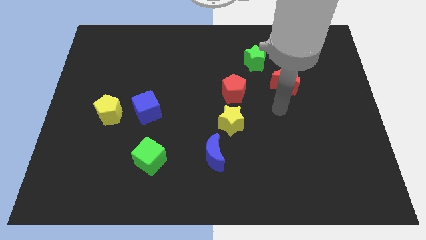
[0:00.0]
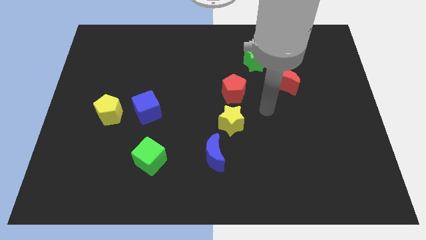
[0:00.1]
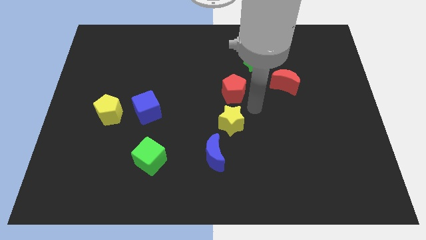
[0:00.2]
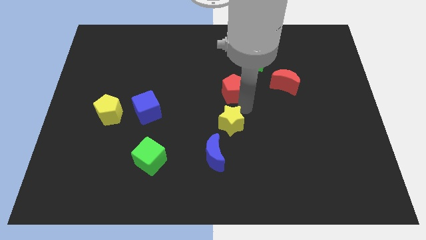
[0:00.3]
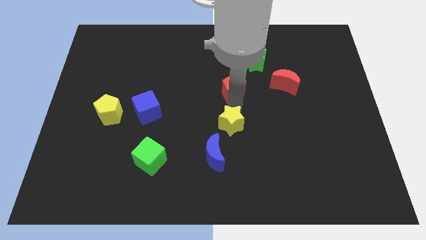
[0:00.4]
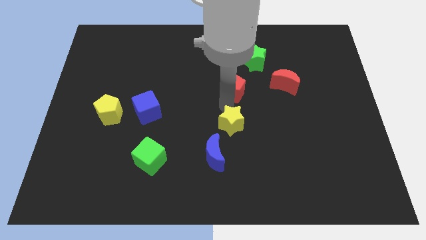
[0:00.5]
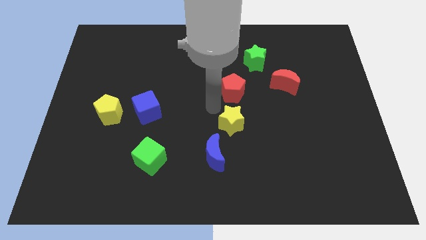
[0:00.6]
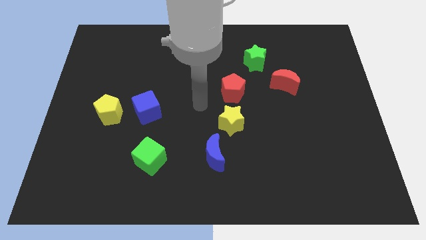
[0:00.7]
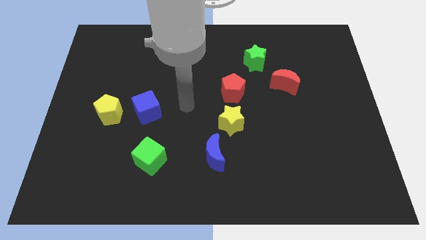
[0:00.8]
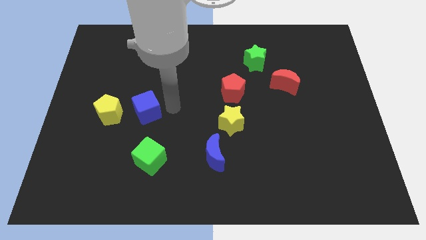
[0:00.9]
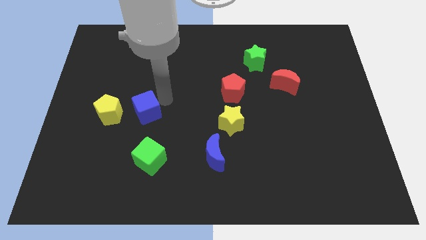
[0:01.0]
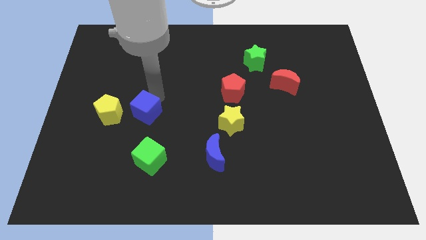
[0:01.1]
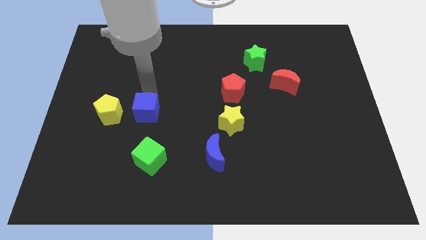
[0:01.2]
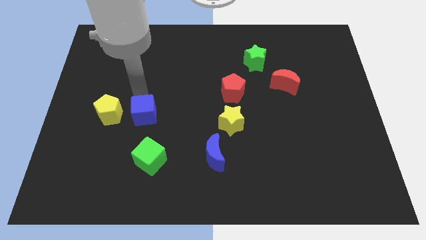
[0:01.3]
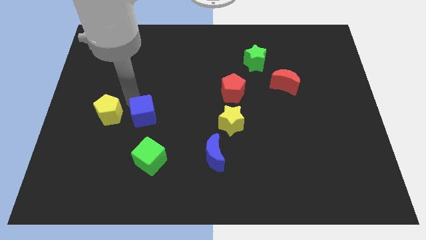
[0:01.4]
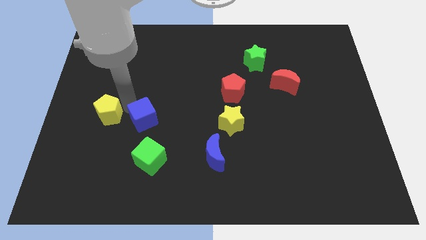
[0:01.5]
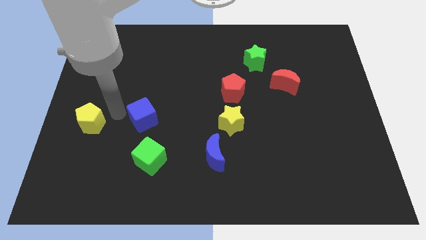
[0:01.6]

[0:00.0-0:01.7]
separate the blue cube from the yellow pentagon

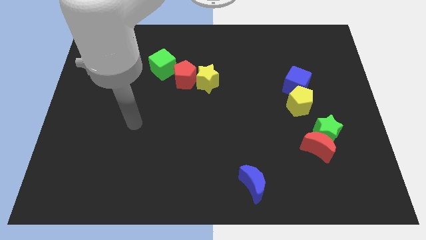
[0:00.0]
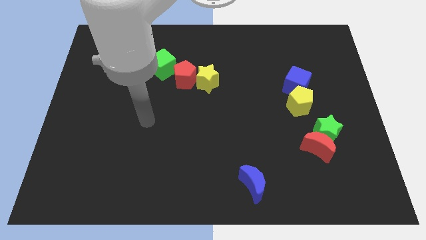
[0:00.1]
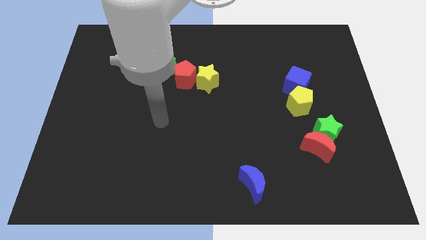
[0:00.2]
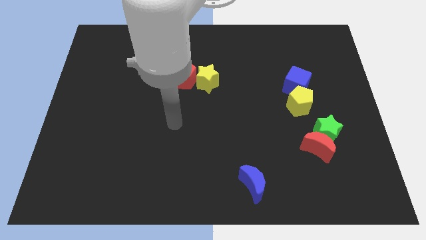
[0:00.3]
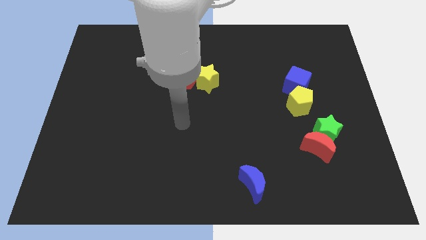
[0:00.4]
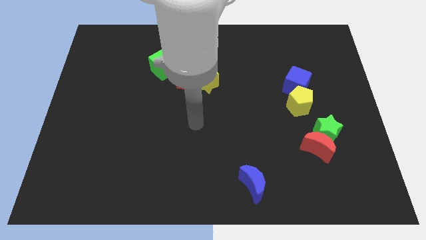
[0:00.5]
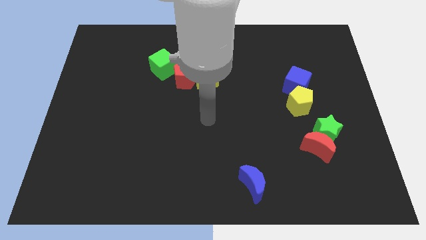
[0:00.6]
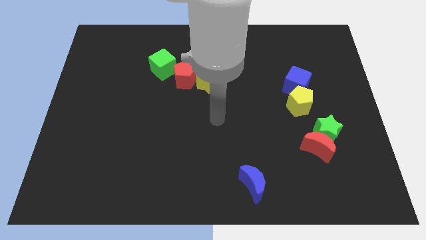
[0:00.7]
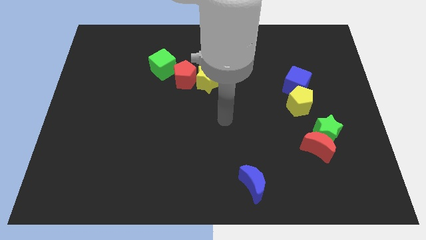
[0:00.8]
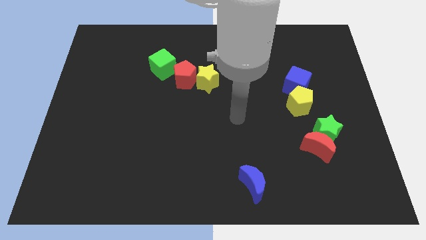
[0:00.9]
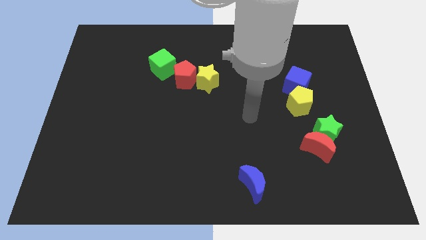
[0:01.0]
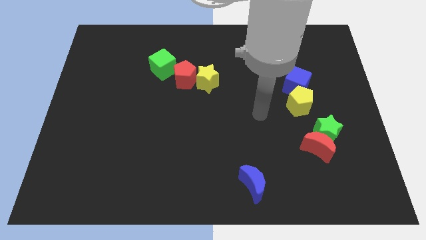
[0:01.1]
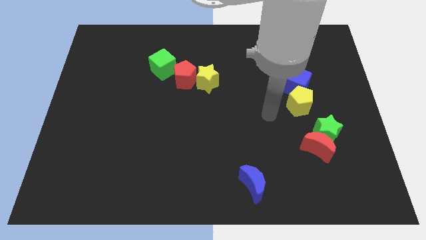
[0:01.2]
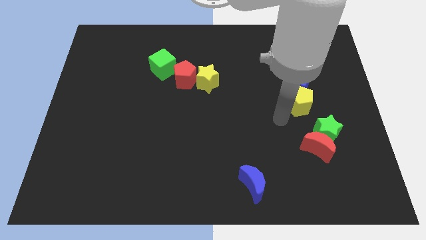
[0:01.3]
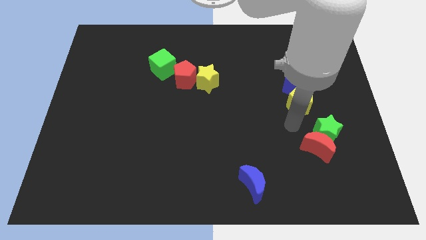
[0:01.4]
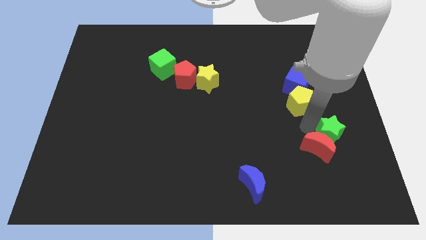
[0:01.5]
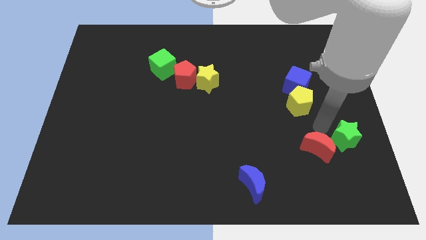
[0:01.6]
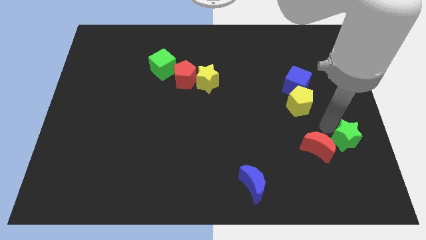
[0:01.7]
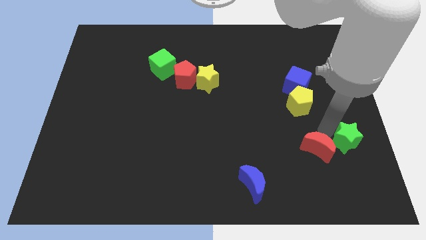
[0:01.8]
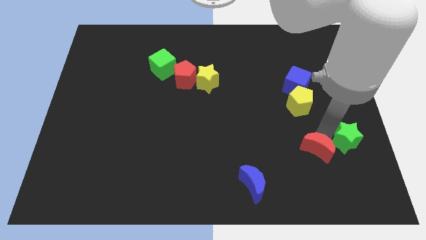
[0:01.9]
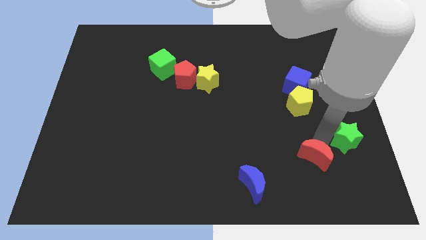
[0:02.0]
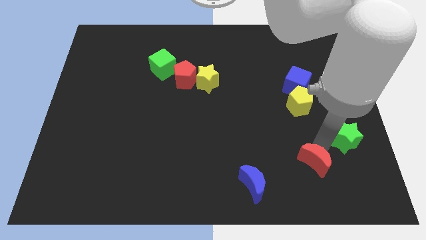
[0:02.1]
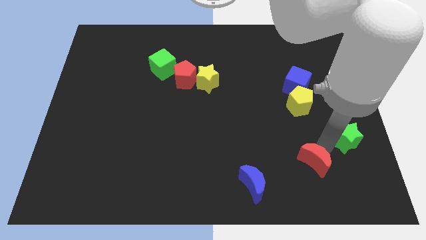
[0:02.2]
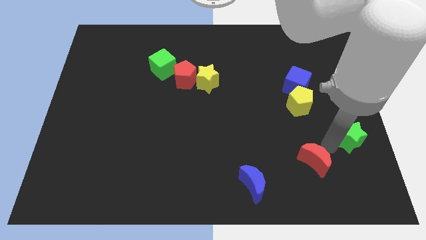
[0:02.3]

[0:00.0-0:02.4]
separate the red moon from the green star

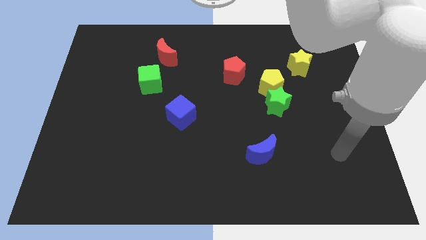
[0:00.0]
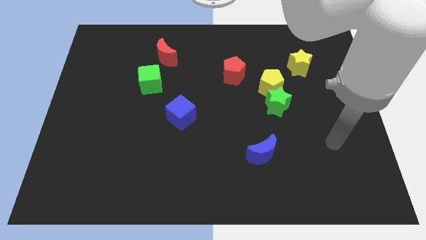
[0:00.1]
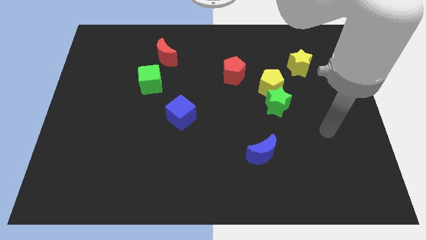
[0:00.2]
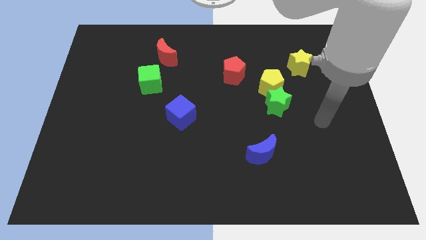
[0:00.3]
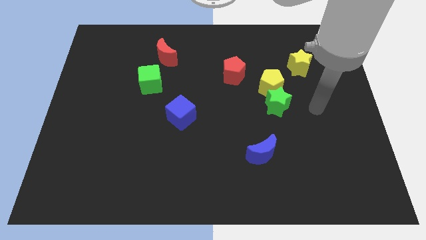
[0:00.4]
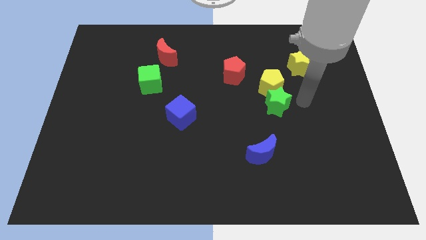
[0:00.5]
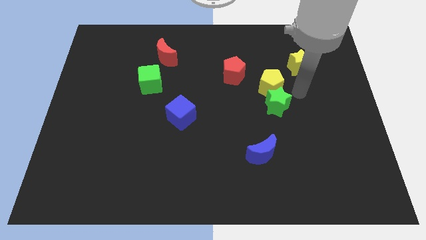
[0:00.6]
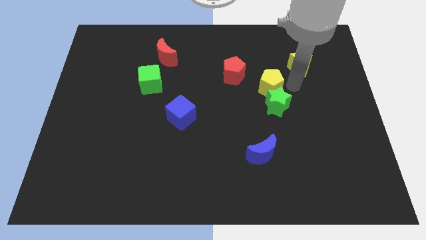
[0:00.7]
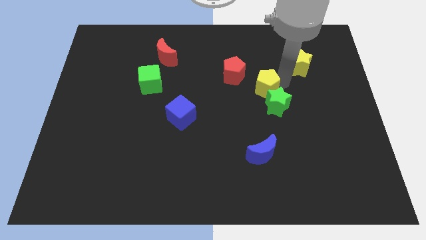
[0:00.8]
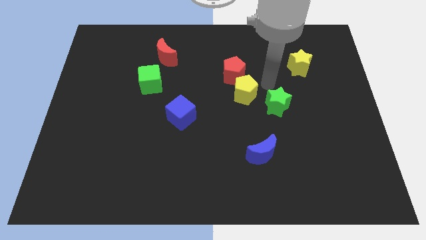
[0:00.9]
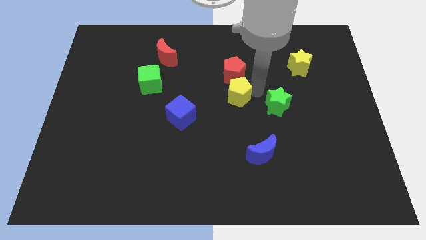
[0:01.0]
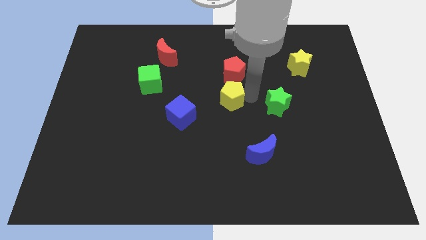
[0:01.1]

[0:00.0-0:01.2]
move the green star away from the yellow pentagon

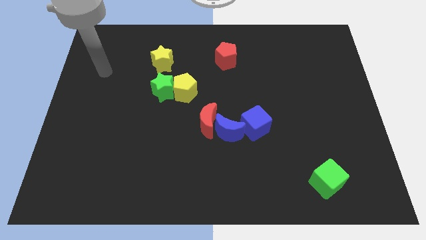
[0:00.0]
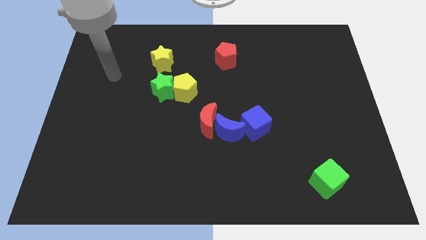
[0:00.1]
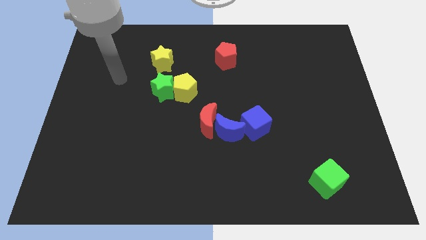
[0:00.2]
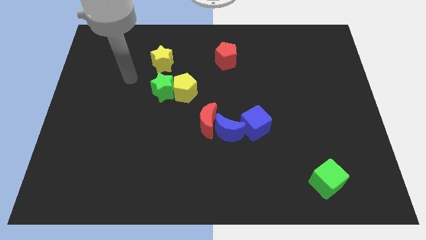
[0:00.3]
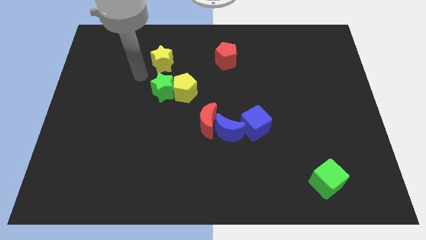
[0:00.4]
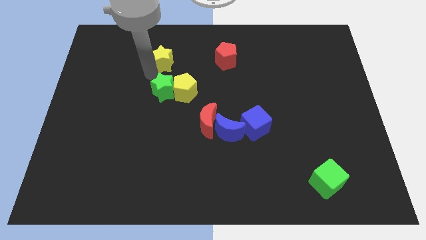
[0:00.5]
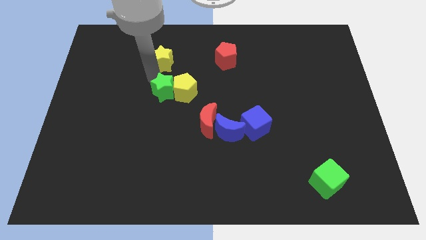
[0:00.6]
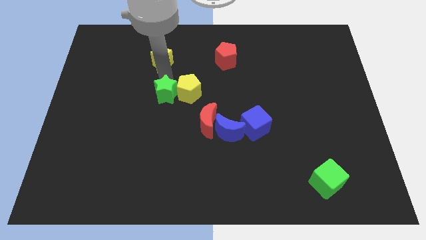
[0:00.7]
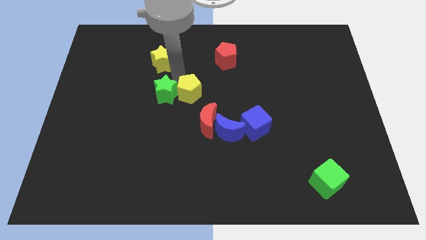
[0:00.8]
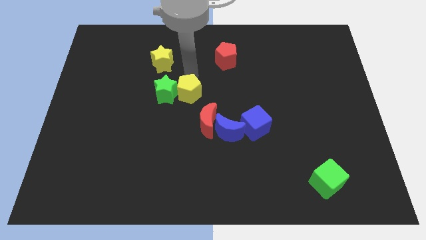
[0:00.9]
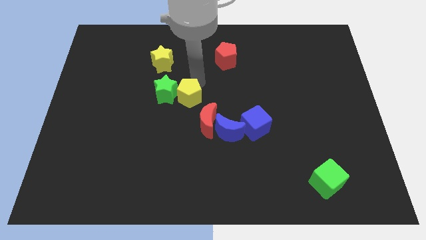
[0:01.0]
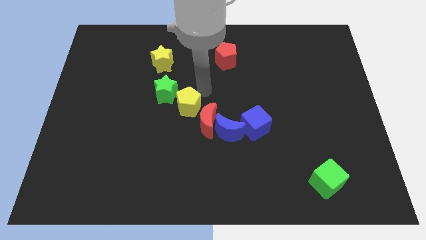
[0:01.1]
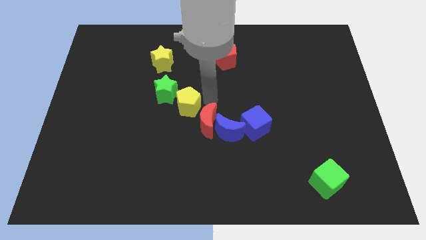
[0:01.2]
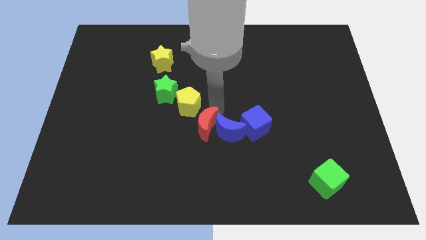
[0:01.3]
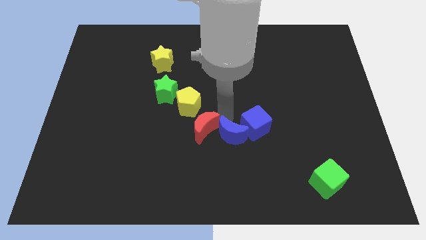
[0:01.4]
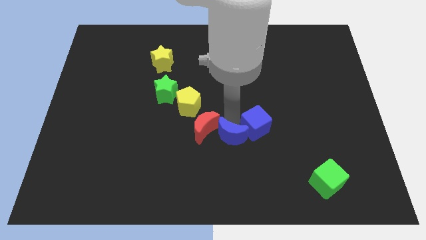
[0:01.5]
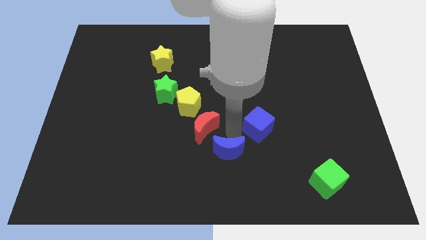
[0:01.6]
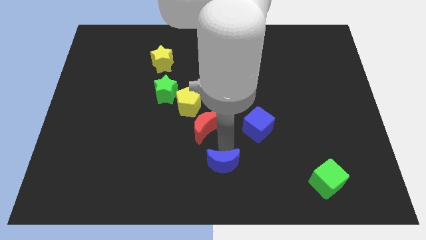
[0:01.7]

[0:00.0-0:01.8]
pull the red moon apart from the blue moon

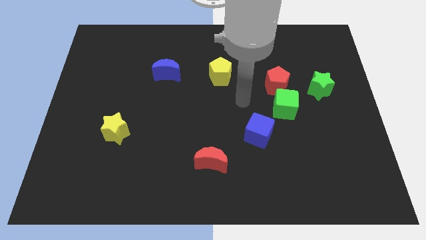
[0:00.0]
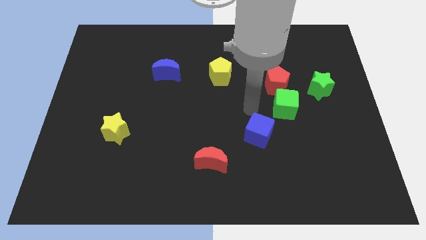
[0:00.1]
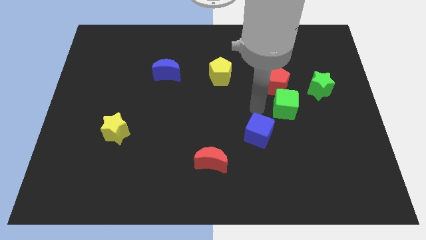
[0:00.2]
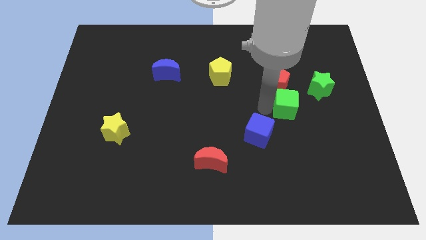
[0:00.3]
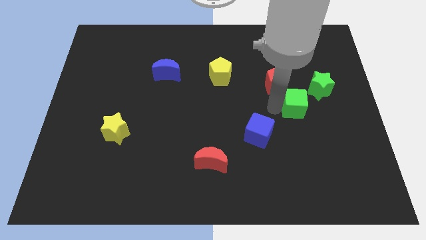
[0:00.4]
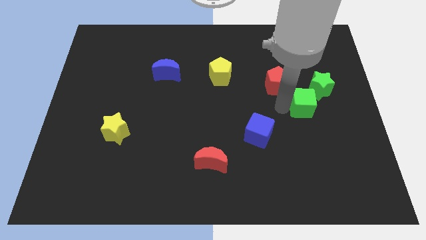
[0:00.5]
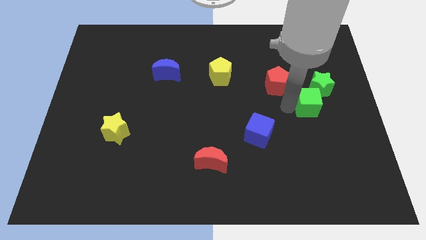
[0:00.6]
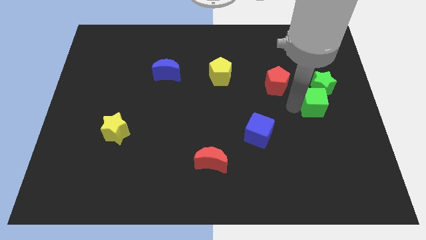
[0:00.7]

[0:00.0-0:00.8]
pull the green cube apart from the red pentagon and blue cube

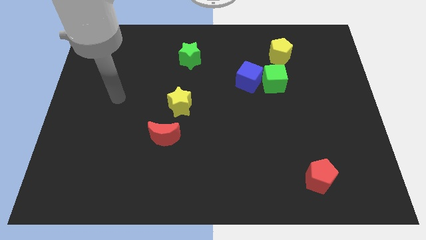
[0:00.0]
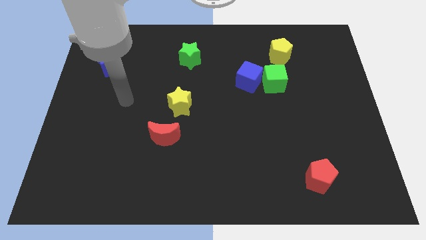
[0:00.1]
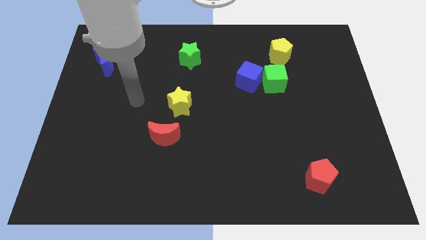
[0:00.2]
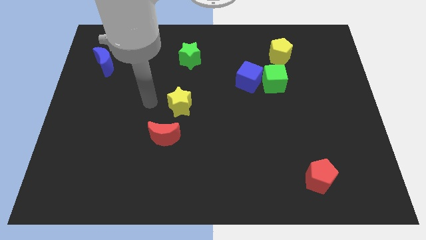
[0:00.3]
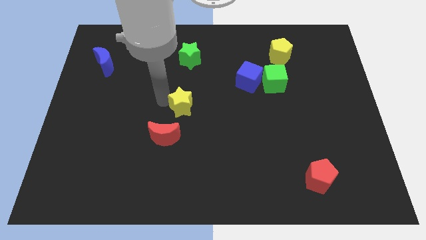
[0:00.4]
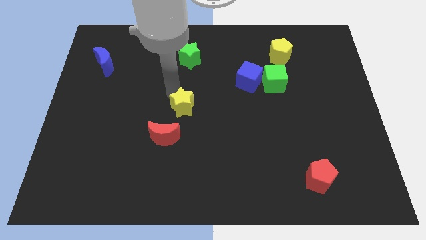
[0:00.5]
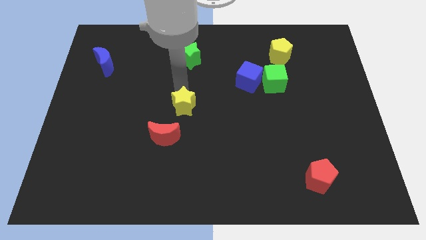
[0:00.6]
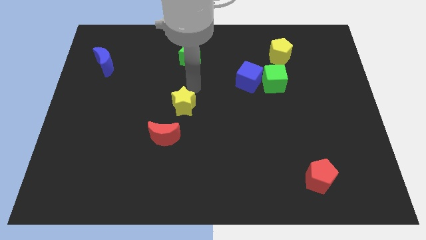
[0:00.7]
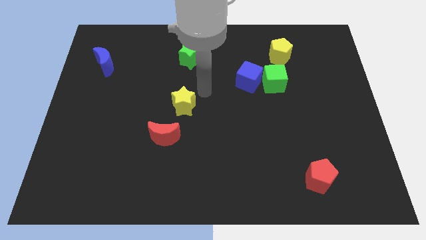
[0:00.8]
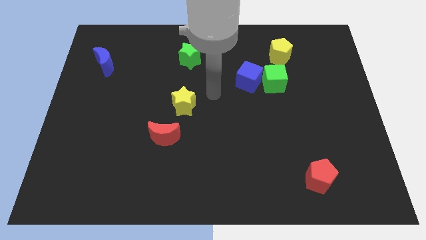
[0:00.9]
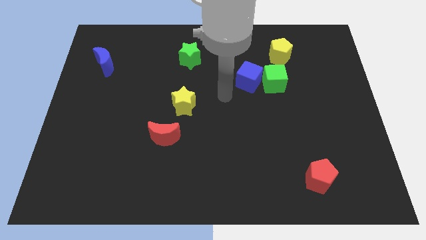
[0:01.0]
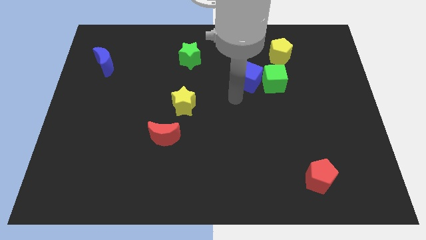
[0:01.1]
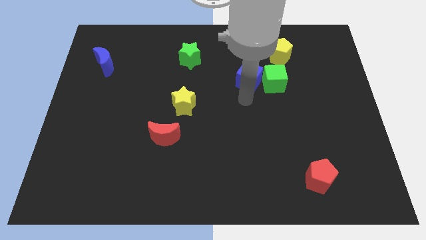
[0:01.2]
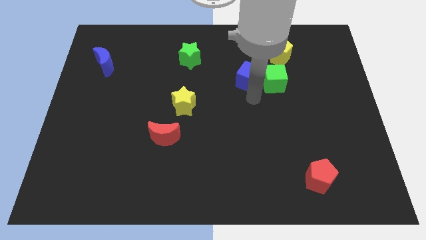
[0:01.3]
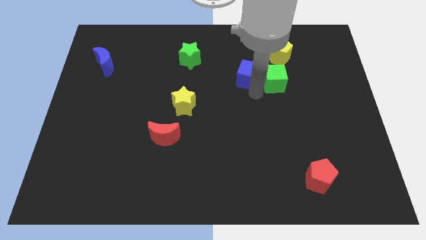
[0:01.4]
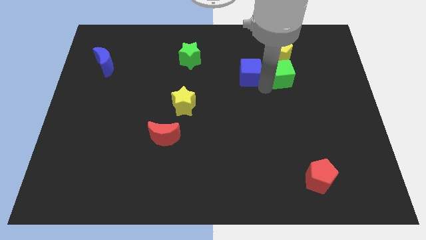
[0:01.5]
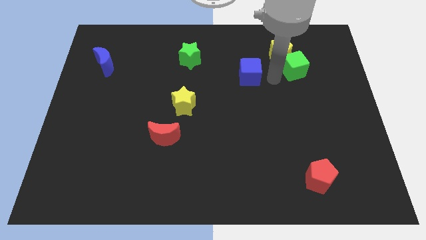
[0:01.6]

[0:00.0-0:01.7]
separate the blue cube from the green cube
